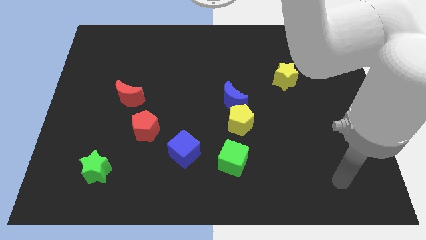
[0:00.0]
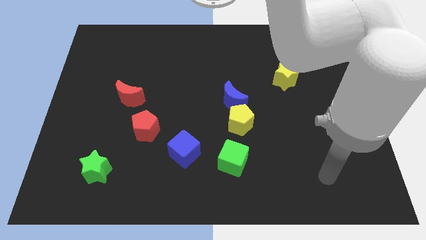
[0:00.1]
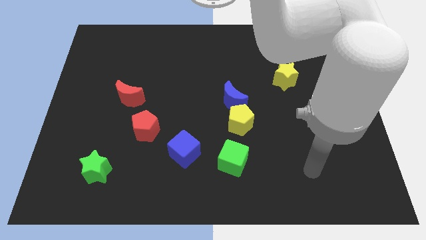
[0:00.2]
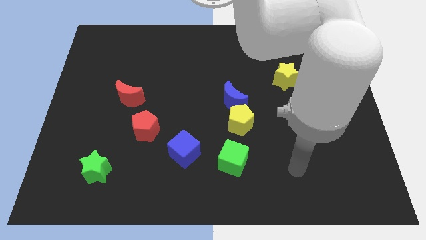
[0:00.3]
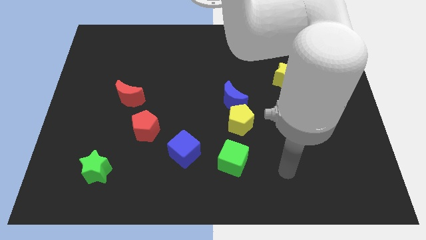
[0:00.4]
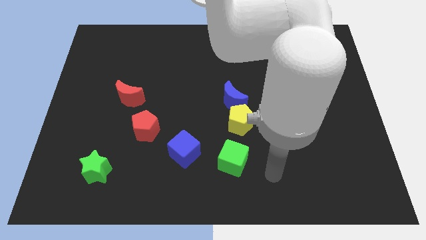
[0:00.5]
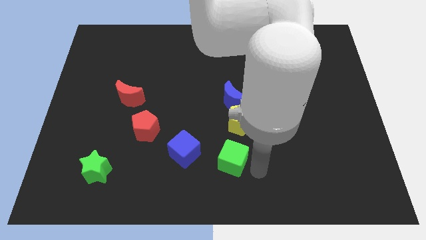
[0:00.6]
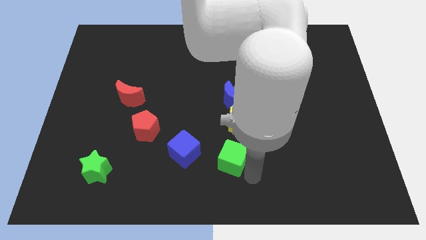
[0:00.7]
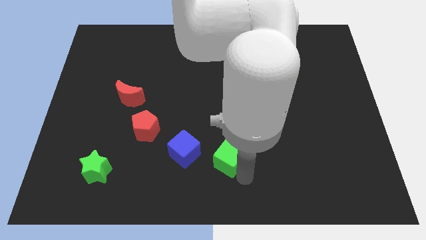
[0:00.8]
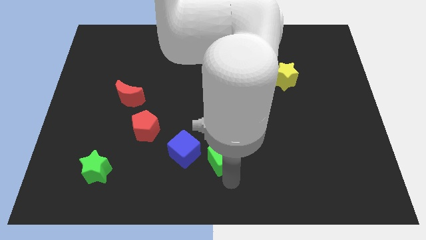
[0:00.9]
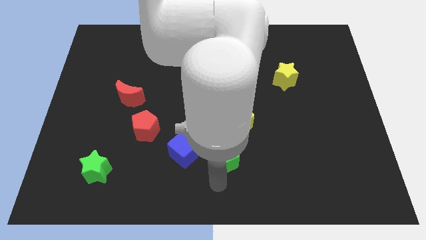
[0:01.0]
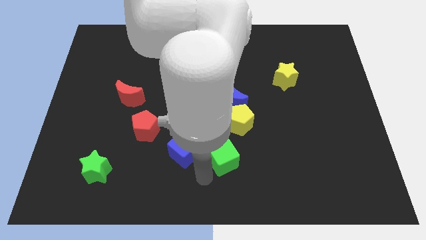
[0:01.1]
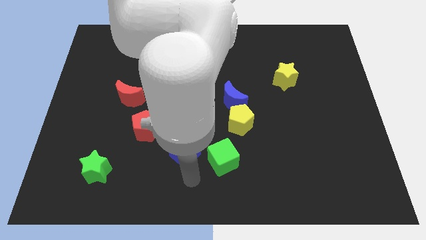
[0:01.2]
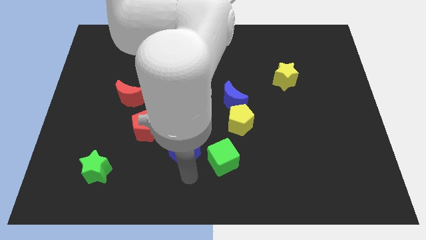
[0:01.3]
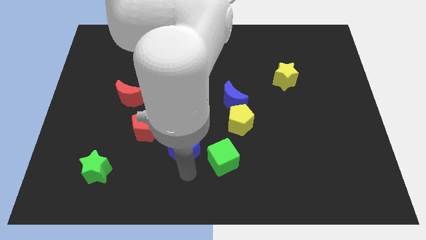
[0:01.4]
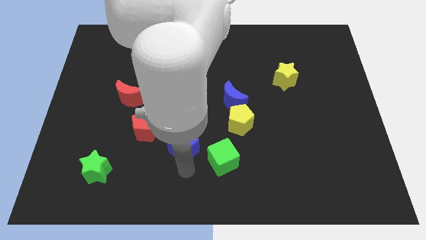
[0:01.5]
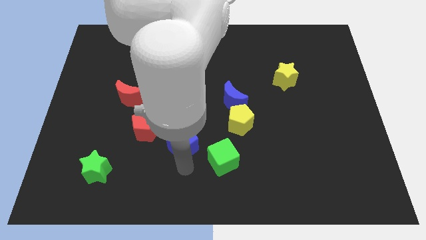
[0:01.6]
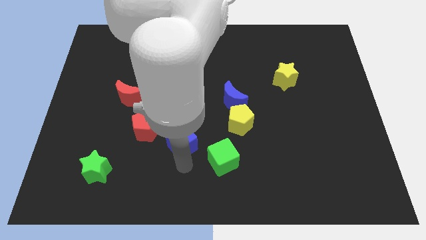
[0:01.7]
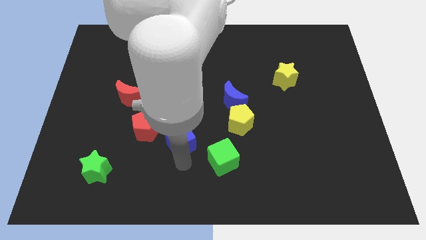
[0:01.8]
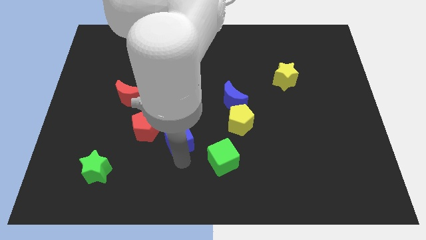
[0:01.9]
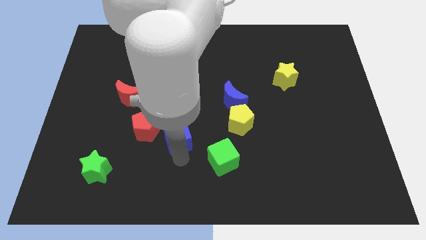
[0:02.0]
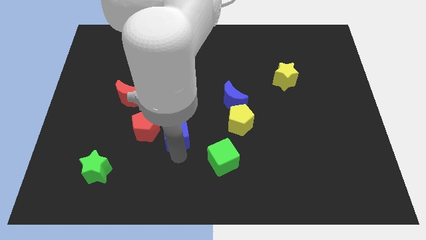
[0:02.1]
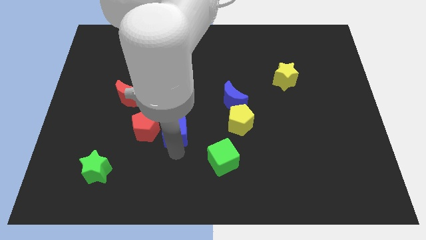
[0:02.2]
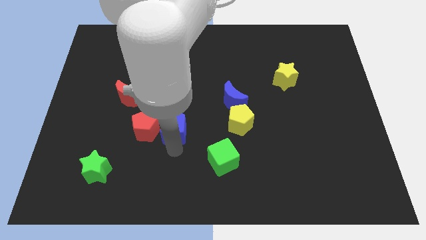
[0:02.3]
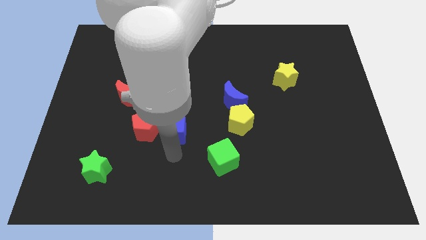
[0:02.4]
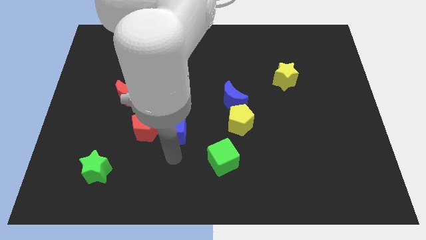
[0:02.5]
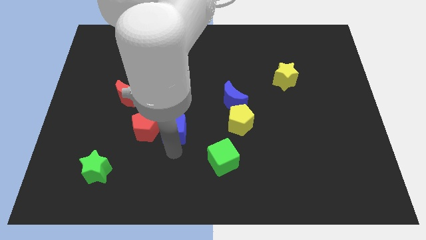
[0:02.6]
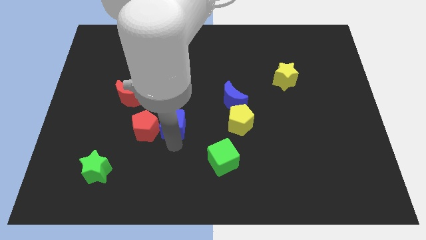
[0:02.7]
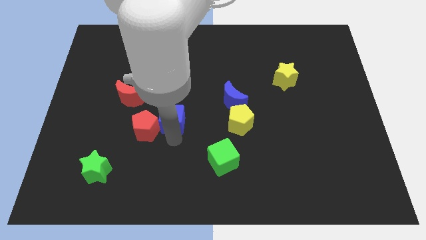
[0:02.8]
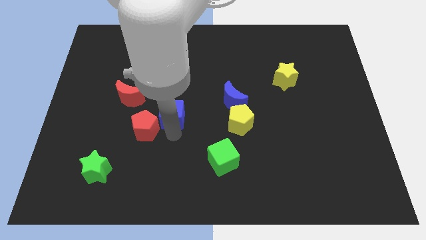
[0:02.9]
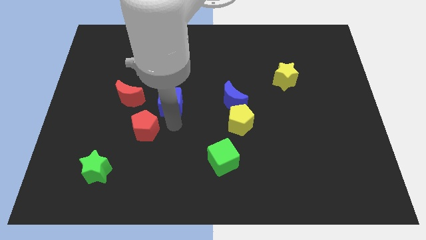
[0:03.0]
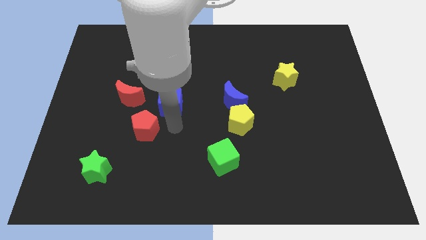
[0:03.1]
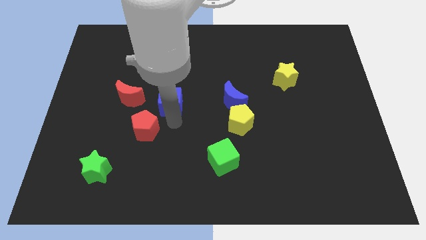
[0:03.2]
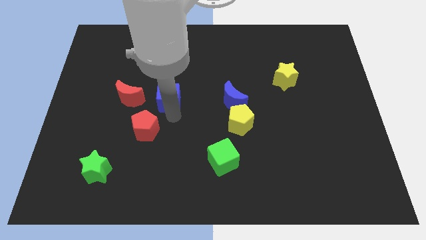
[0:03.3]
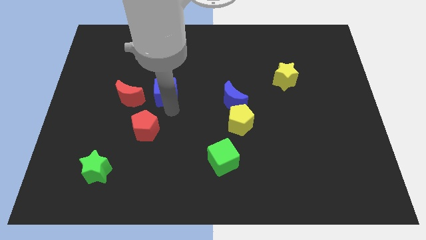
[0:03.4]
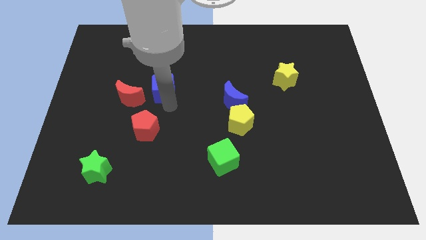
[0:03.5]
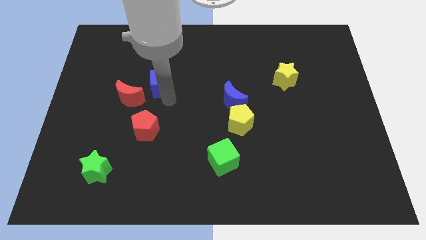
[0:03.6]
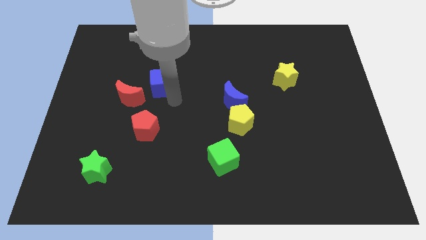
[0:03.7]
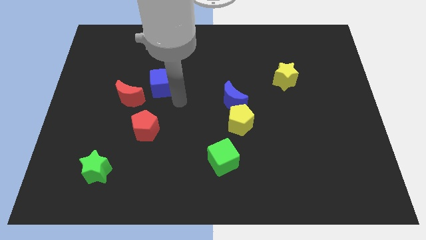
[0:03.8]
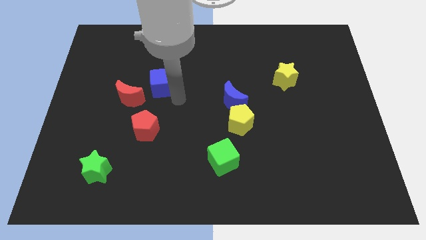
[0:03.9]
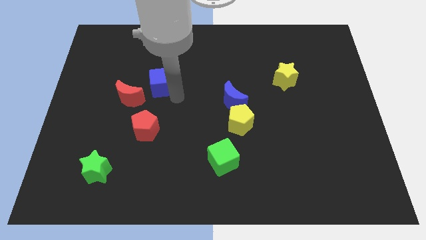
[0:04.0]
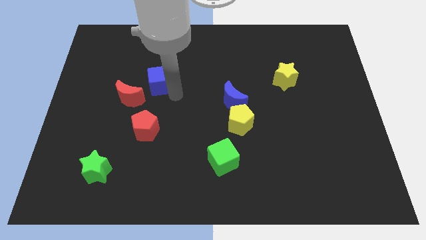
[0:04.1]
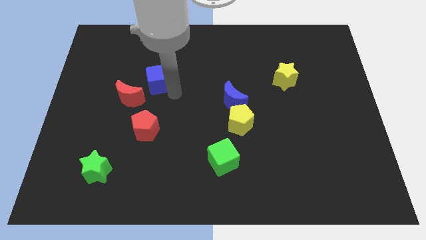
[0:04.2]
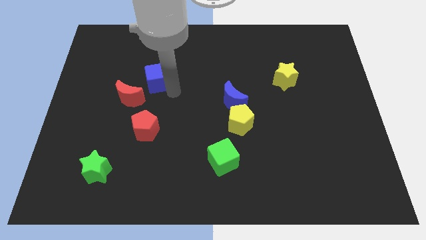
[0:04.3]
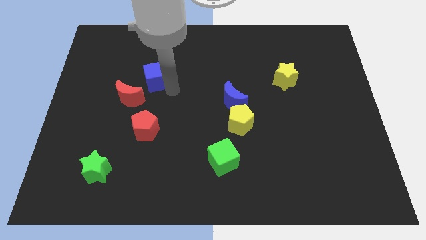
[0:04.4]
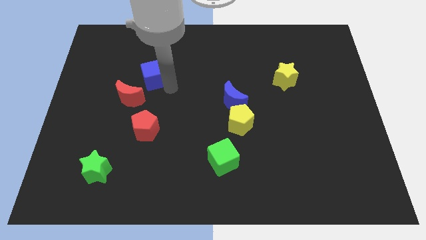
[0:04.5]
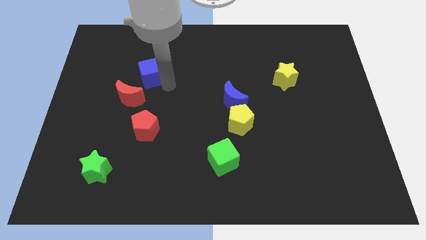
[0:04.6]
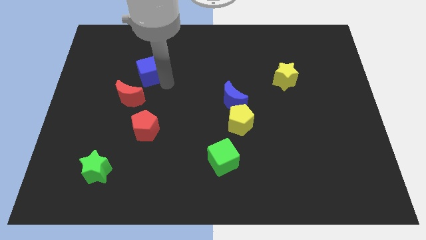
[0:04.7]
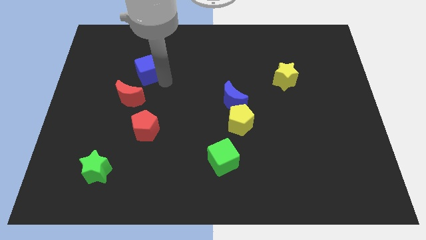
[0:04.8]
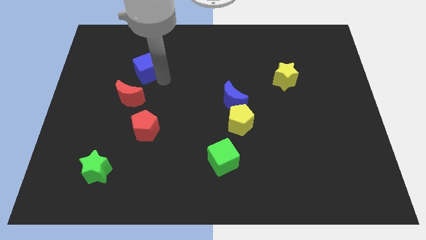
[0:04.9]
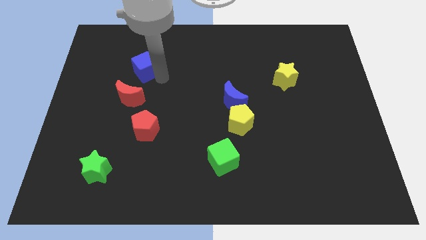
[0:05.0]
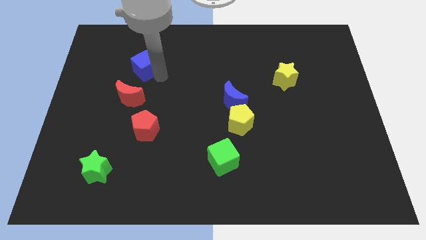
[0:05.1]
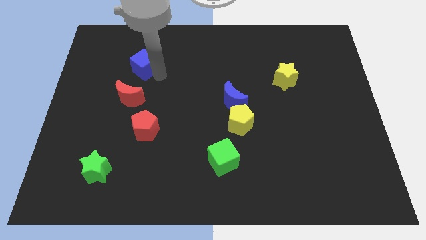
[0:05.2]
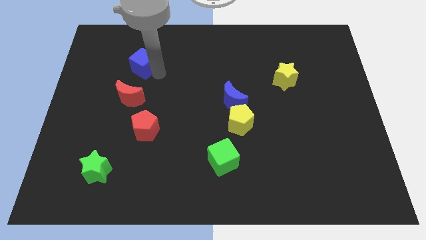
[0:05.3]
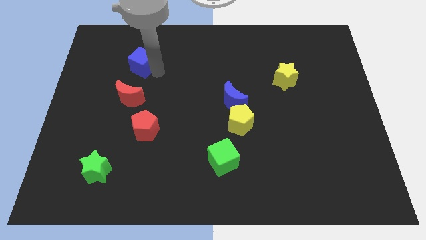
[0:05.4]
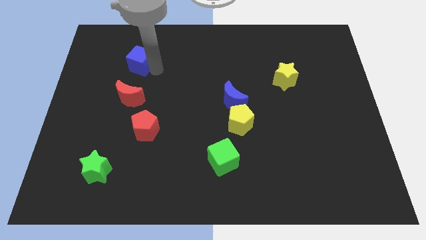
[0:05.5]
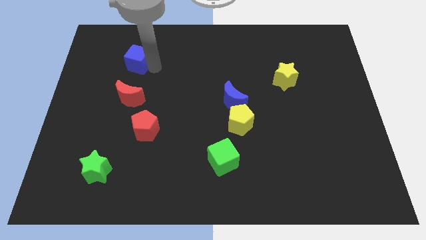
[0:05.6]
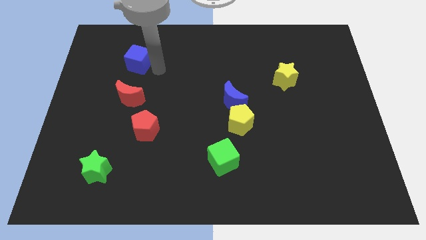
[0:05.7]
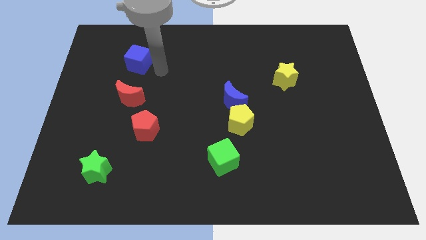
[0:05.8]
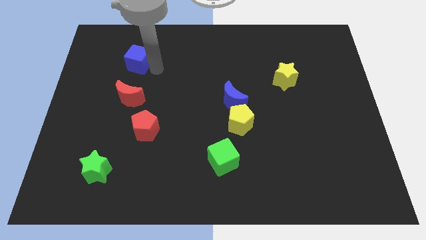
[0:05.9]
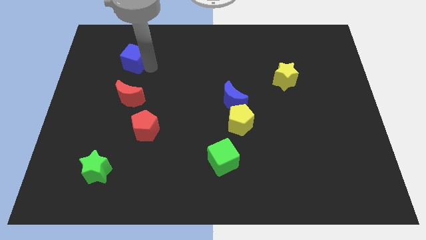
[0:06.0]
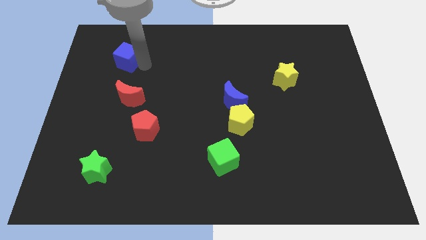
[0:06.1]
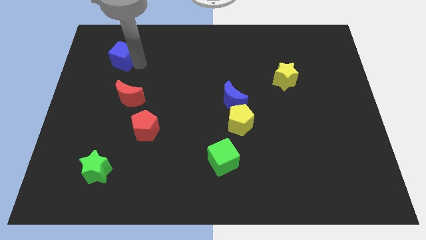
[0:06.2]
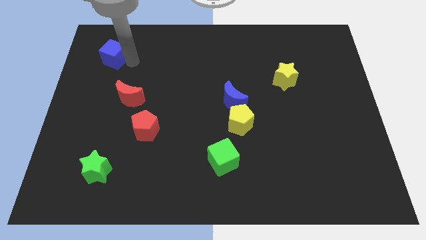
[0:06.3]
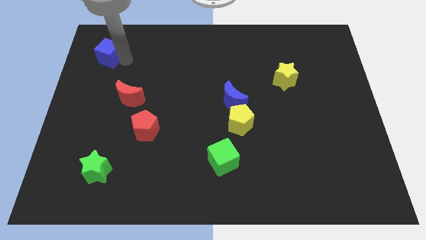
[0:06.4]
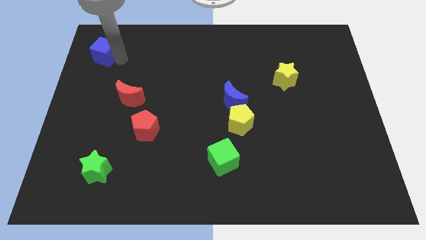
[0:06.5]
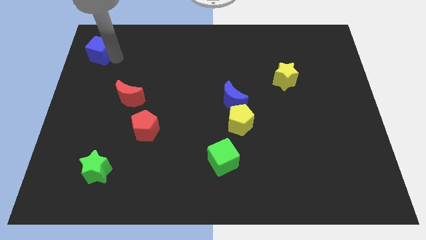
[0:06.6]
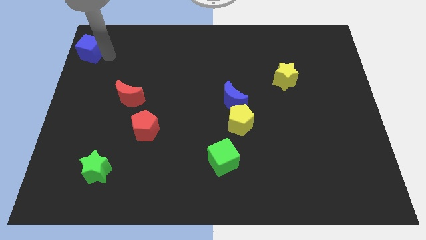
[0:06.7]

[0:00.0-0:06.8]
put the blue cube to the top left of the board

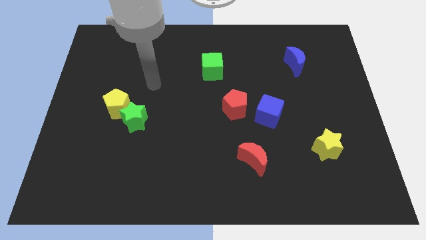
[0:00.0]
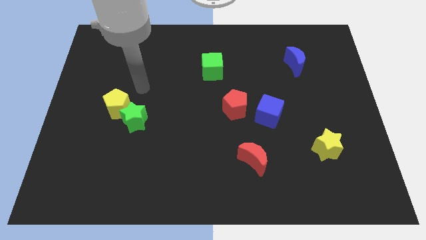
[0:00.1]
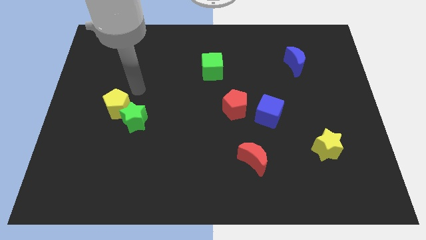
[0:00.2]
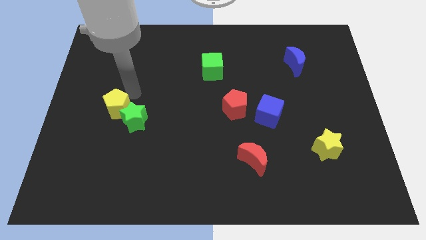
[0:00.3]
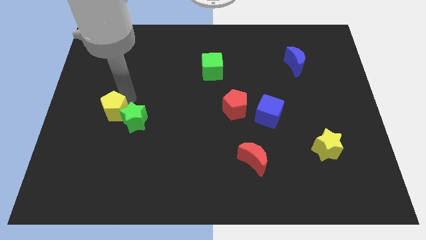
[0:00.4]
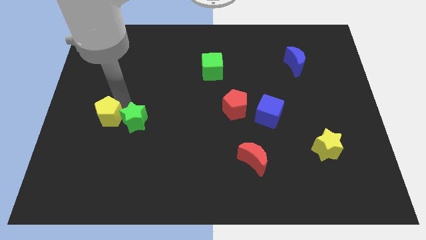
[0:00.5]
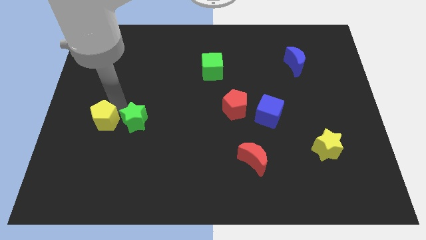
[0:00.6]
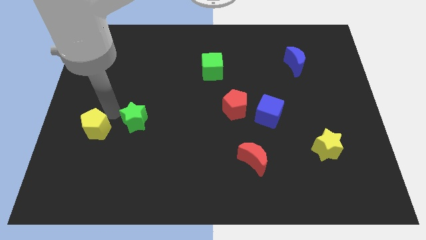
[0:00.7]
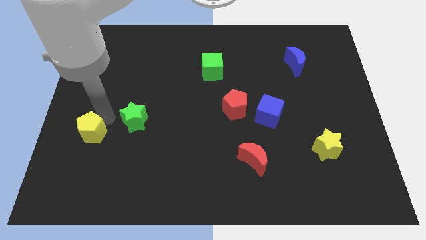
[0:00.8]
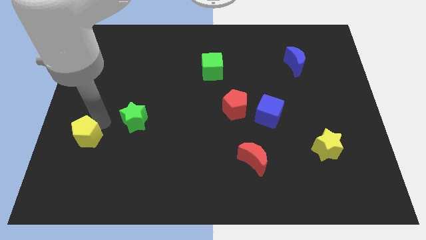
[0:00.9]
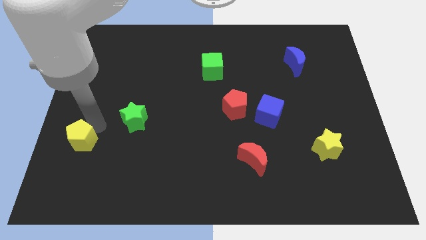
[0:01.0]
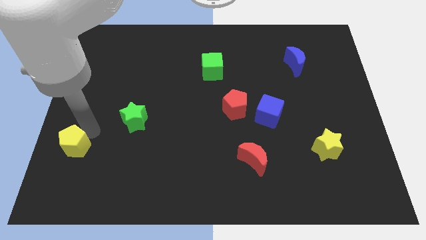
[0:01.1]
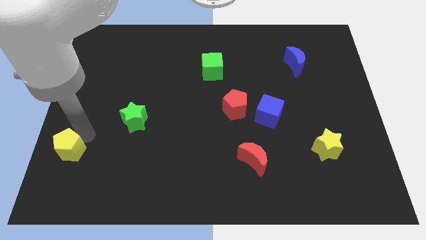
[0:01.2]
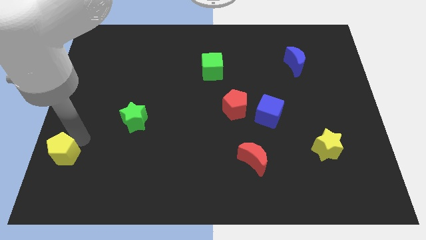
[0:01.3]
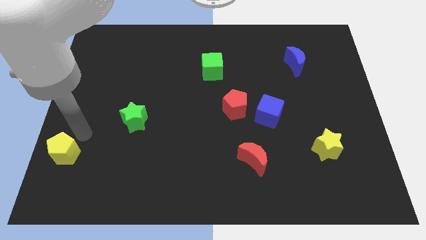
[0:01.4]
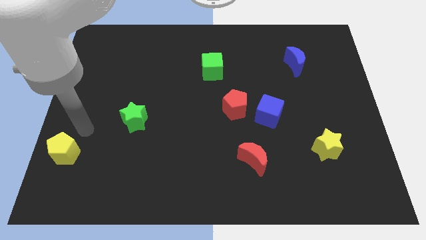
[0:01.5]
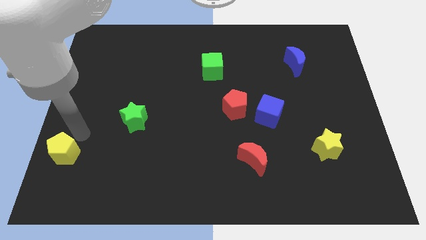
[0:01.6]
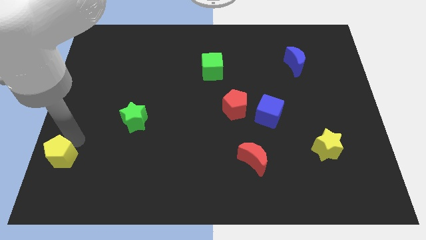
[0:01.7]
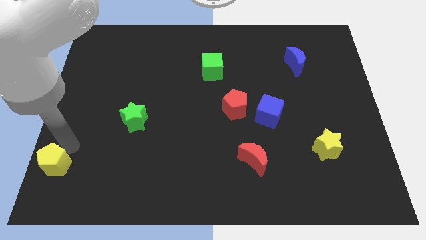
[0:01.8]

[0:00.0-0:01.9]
push the yellow pentagon to the lower left corner
